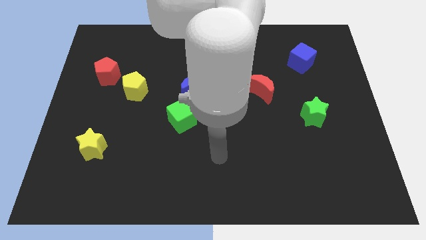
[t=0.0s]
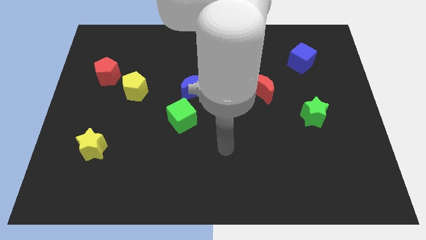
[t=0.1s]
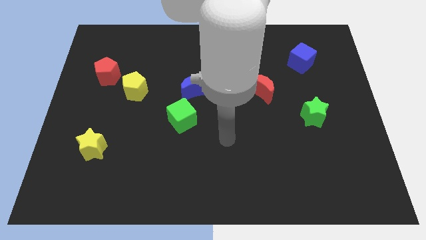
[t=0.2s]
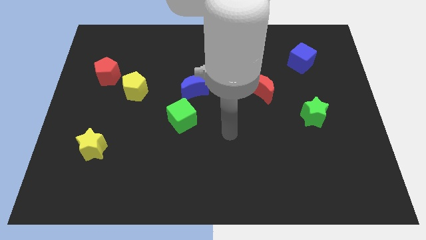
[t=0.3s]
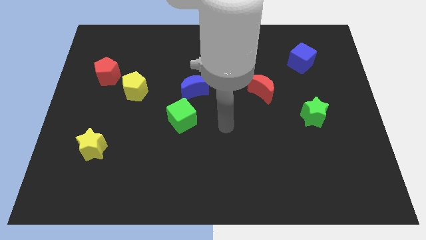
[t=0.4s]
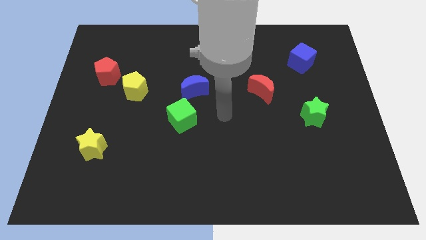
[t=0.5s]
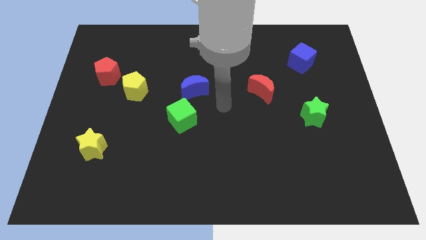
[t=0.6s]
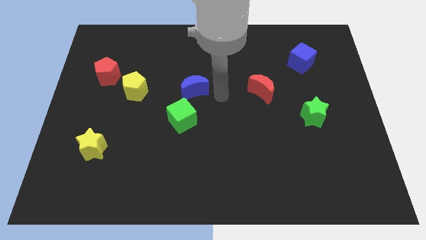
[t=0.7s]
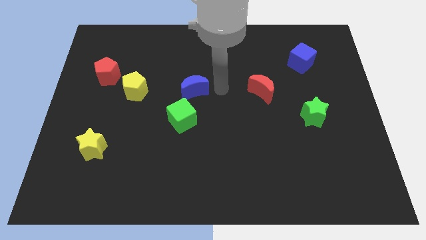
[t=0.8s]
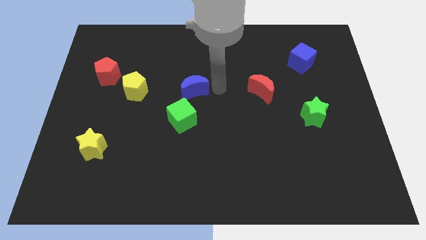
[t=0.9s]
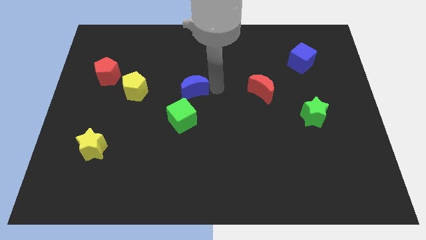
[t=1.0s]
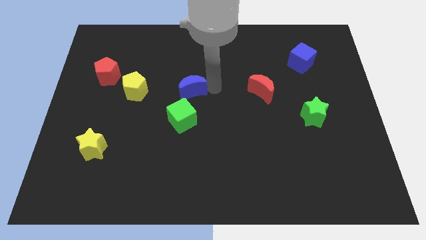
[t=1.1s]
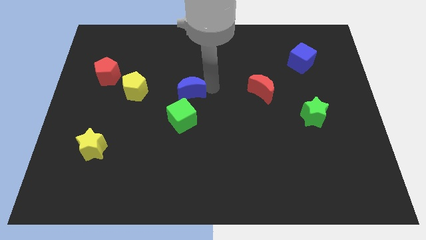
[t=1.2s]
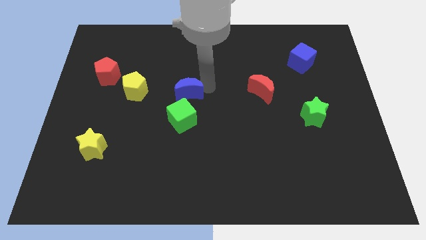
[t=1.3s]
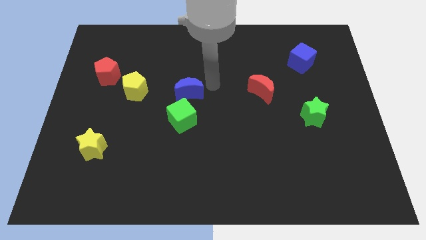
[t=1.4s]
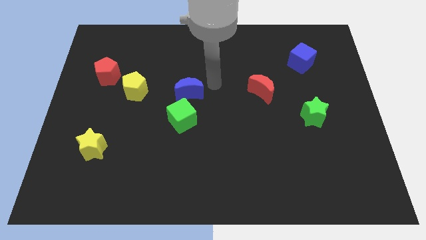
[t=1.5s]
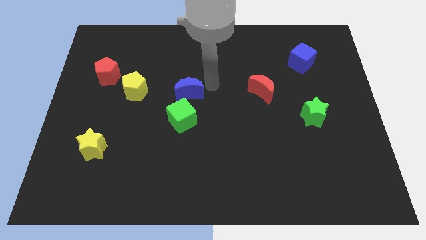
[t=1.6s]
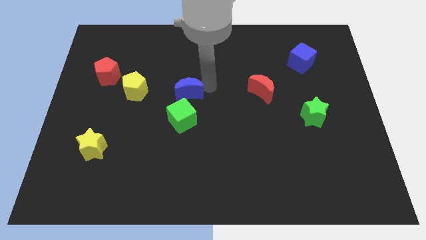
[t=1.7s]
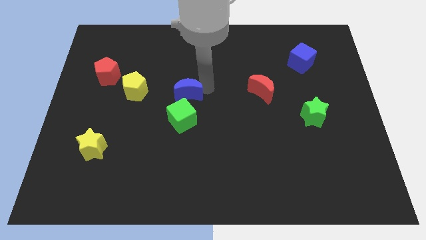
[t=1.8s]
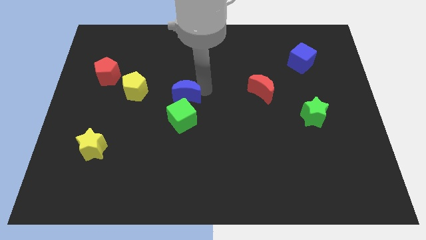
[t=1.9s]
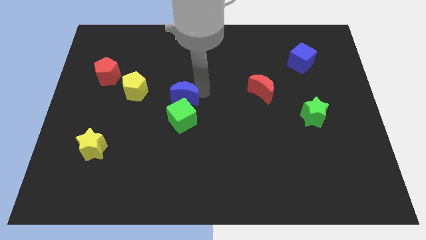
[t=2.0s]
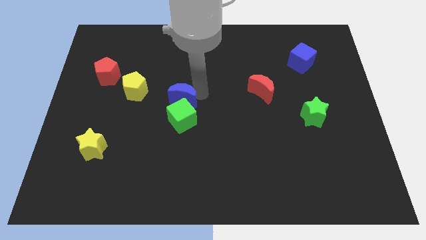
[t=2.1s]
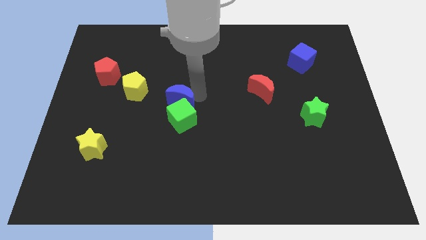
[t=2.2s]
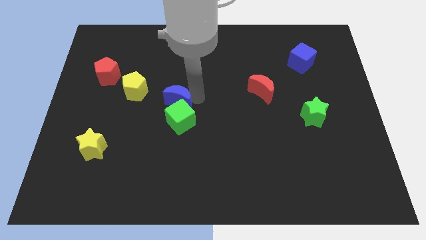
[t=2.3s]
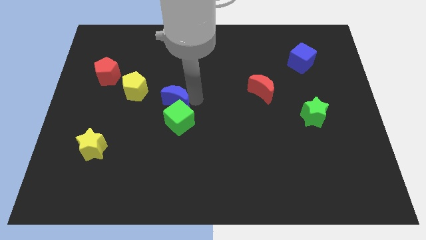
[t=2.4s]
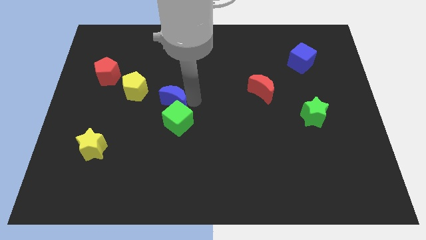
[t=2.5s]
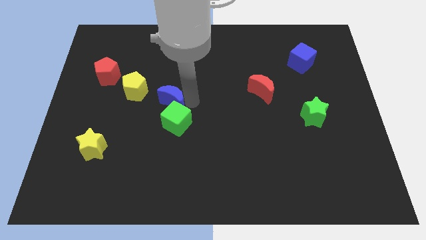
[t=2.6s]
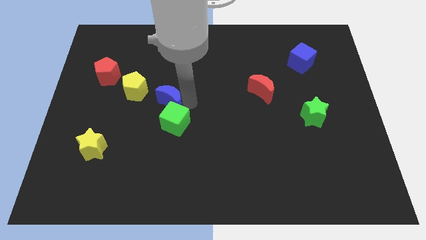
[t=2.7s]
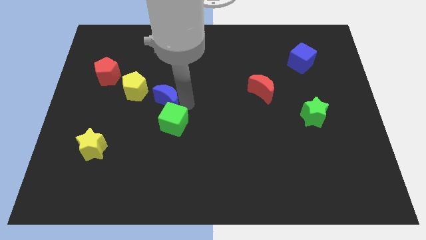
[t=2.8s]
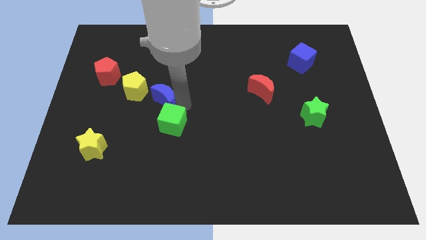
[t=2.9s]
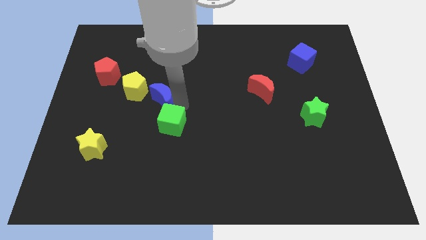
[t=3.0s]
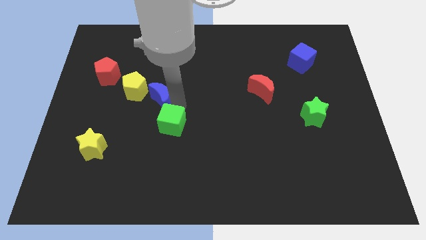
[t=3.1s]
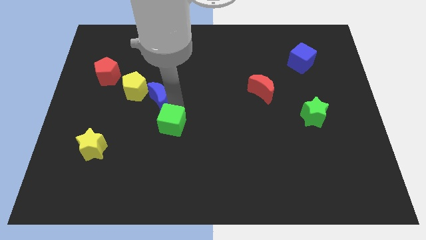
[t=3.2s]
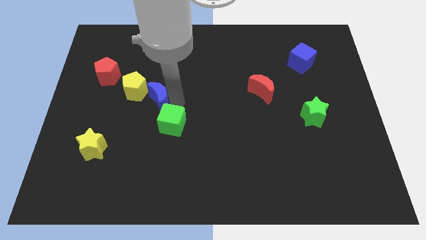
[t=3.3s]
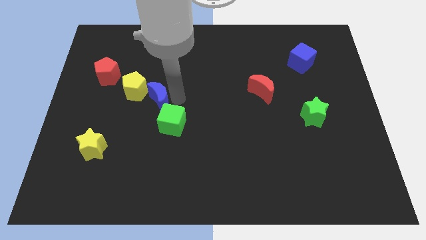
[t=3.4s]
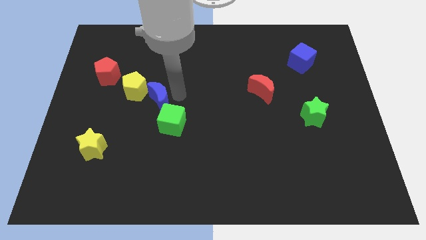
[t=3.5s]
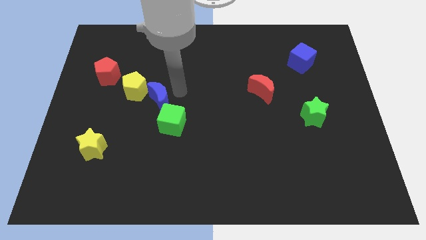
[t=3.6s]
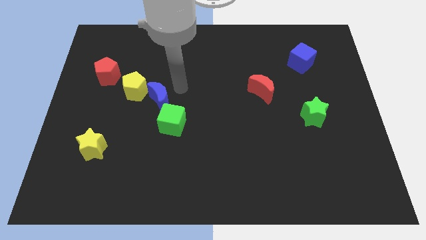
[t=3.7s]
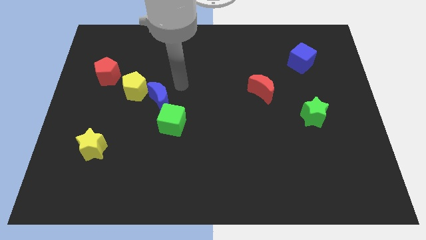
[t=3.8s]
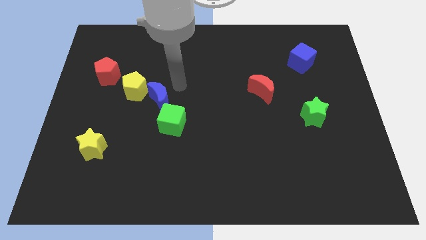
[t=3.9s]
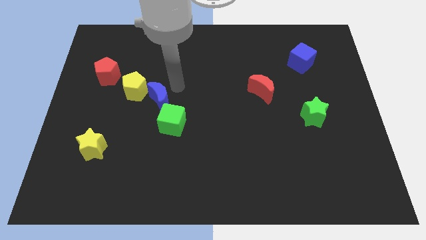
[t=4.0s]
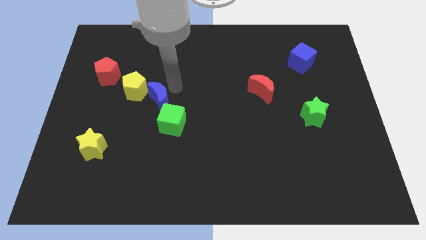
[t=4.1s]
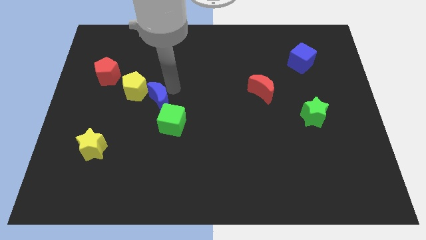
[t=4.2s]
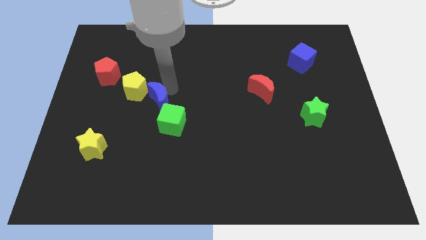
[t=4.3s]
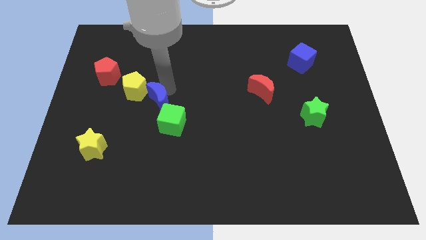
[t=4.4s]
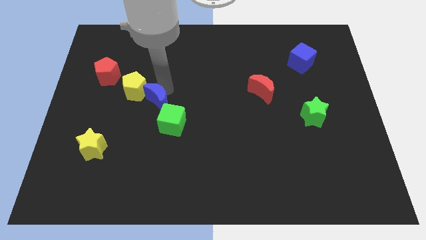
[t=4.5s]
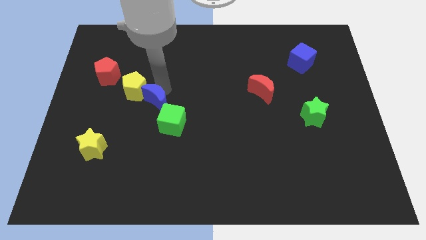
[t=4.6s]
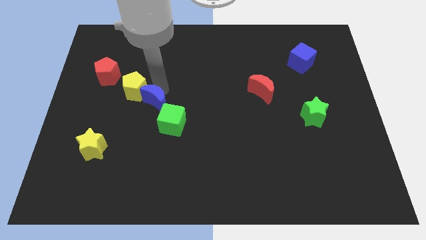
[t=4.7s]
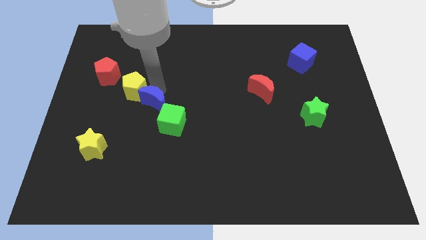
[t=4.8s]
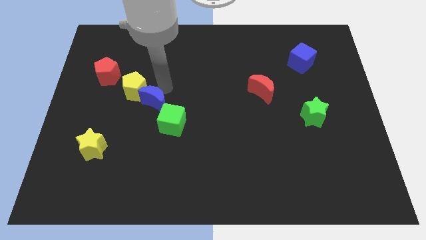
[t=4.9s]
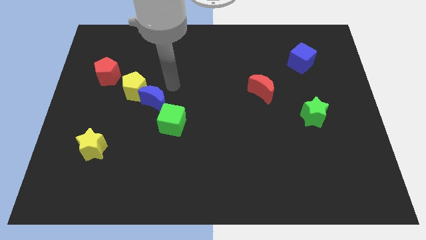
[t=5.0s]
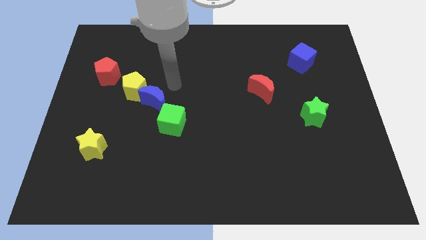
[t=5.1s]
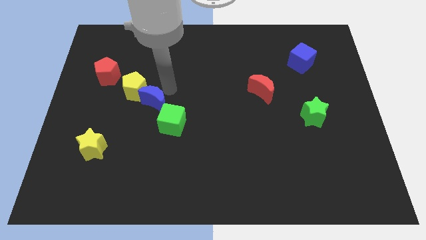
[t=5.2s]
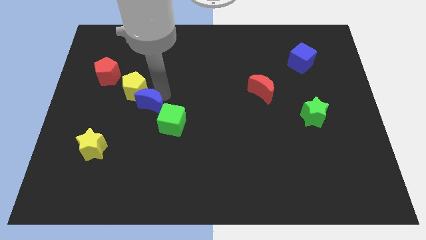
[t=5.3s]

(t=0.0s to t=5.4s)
push the blue moon below the yellow pentagon

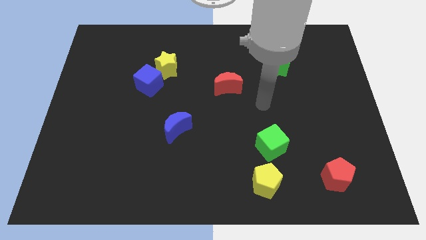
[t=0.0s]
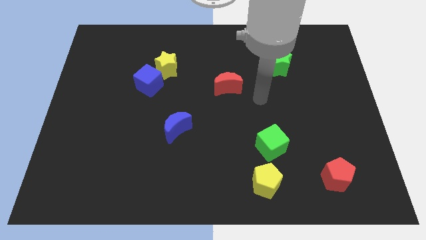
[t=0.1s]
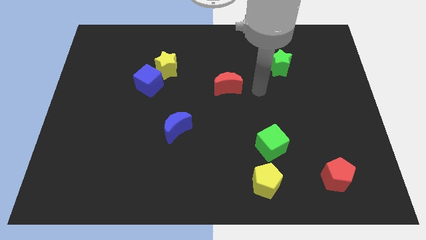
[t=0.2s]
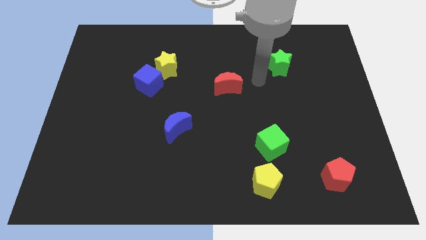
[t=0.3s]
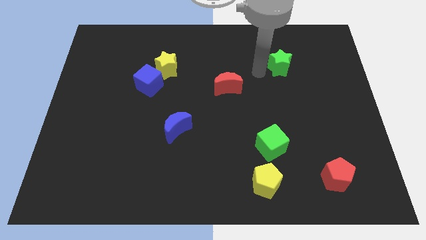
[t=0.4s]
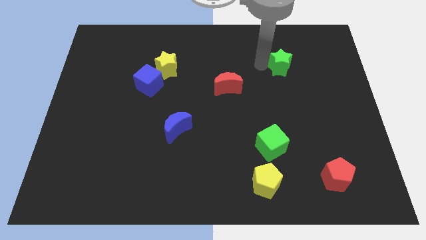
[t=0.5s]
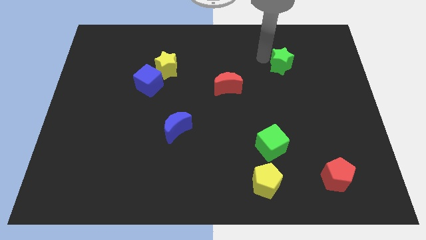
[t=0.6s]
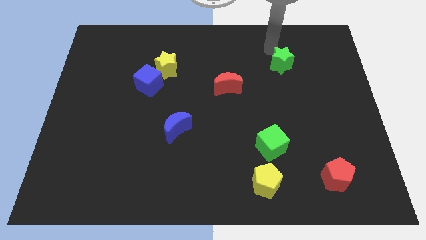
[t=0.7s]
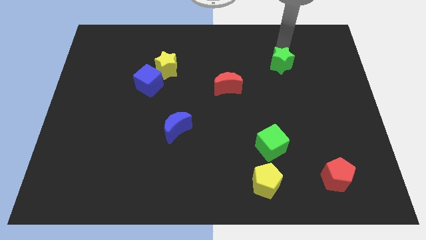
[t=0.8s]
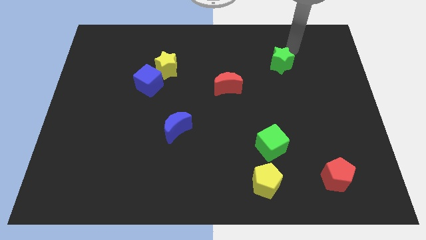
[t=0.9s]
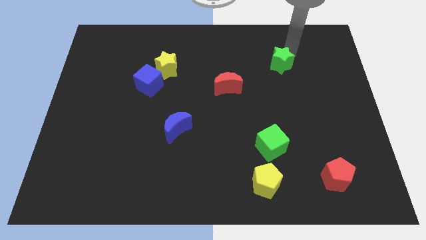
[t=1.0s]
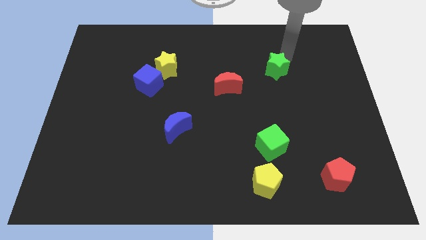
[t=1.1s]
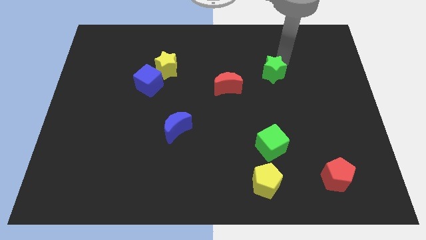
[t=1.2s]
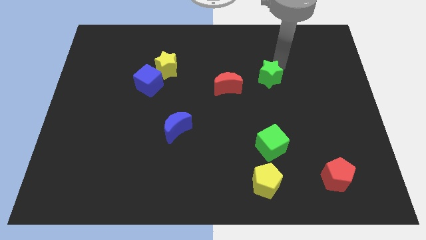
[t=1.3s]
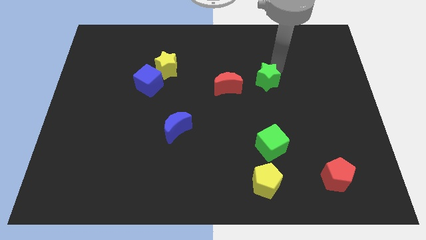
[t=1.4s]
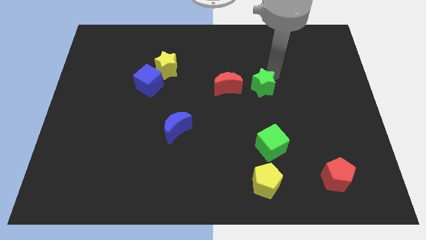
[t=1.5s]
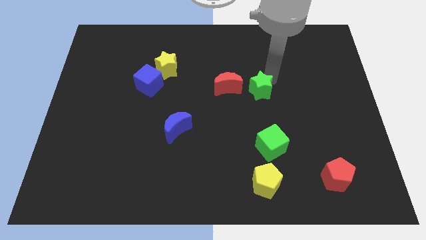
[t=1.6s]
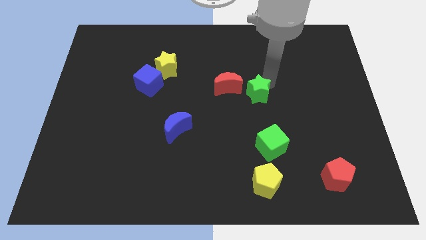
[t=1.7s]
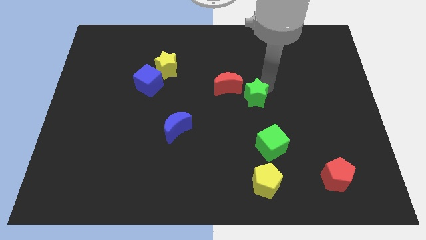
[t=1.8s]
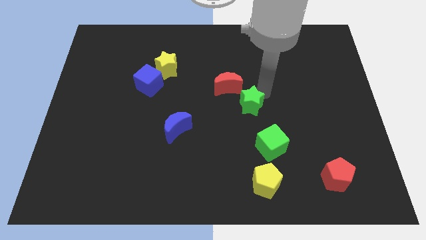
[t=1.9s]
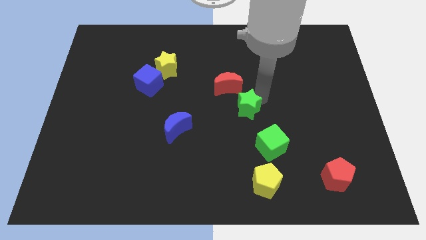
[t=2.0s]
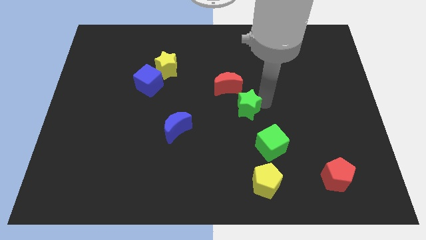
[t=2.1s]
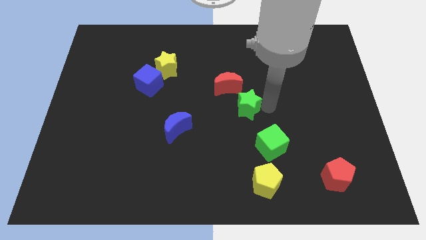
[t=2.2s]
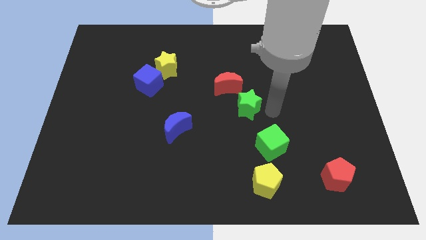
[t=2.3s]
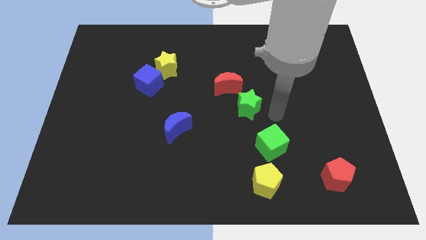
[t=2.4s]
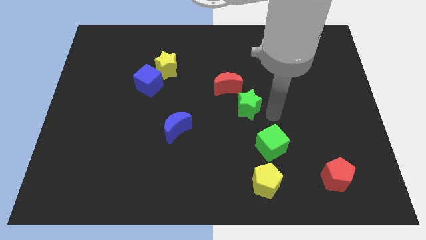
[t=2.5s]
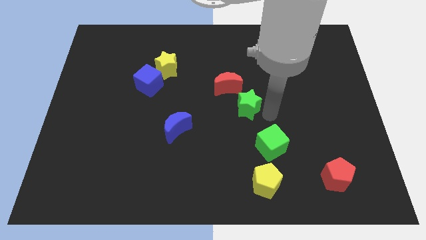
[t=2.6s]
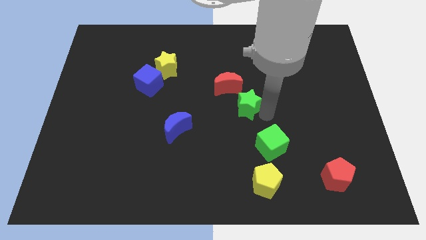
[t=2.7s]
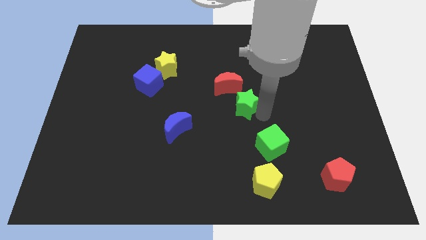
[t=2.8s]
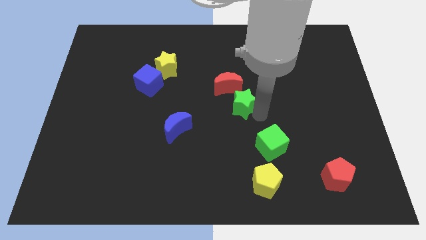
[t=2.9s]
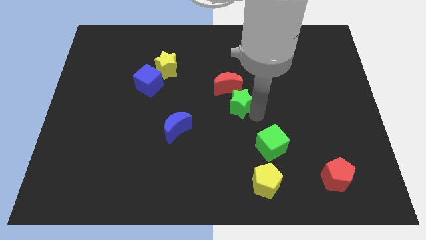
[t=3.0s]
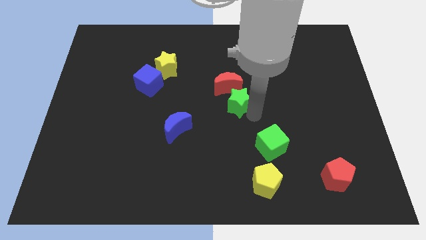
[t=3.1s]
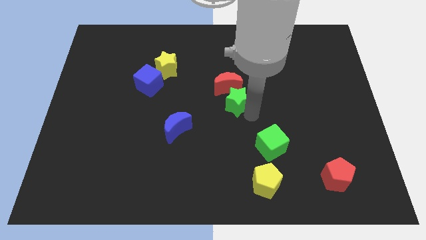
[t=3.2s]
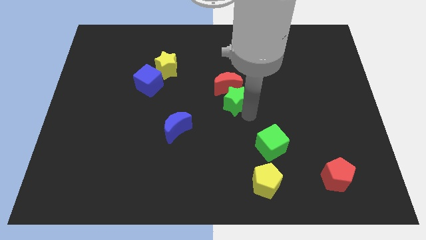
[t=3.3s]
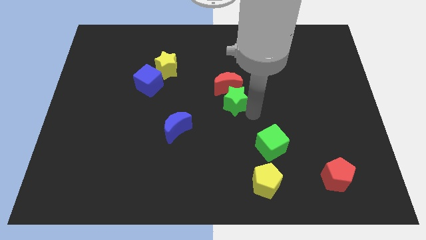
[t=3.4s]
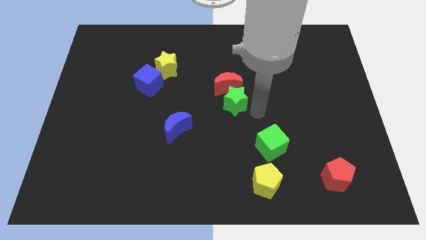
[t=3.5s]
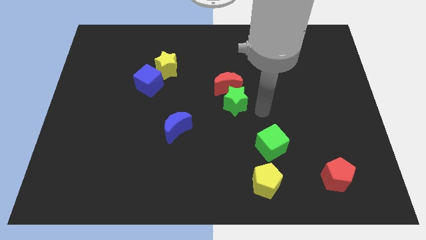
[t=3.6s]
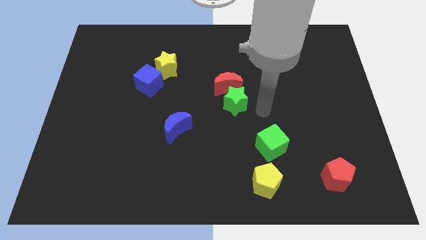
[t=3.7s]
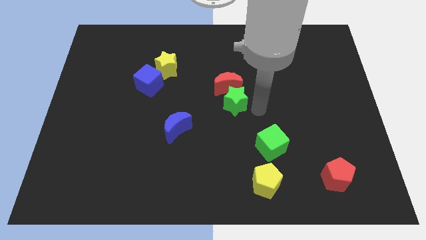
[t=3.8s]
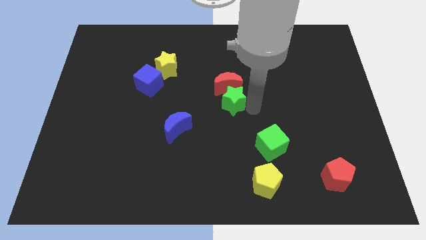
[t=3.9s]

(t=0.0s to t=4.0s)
move the green star to the bottom left of the red moon
